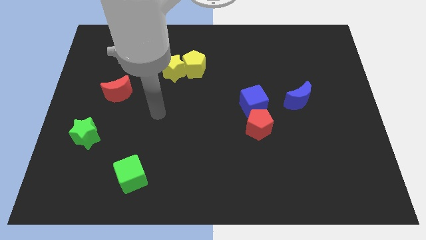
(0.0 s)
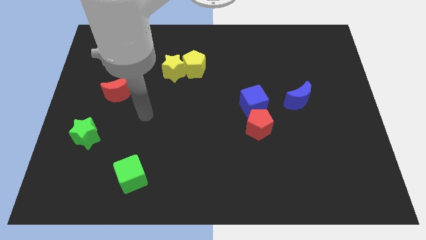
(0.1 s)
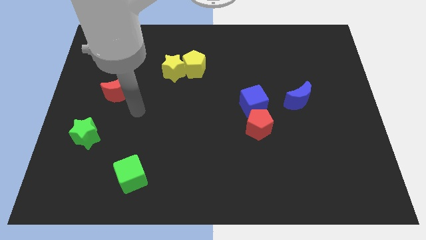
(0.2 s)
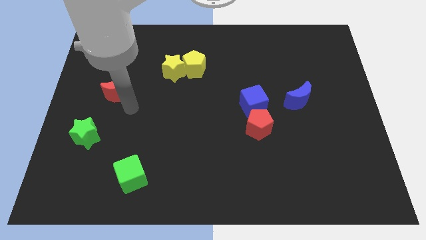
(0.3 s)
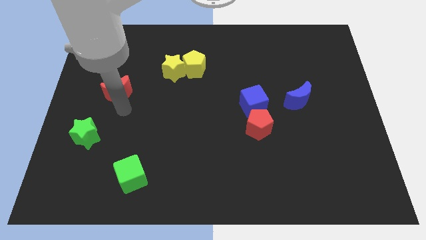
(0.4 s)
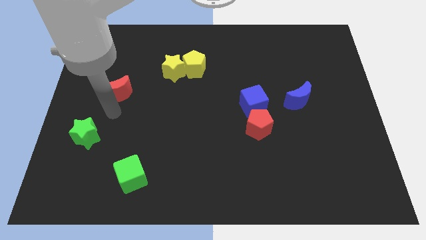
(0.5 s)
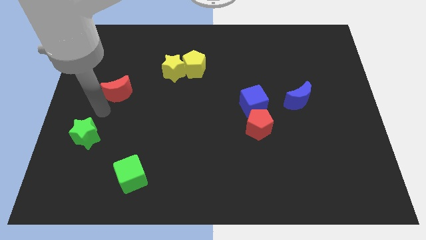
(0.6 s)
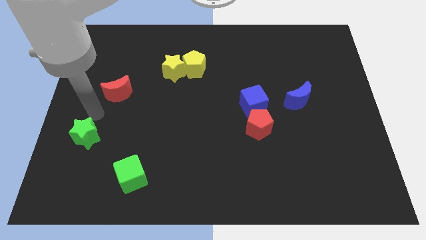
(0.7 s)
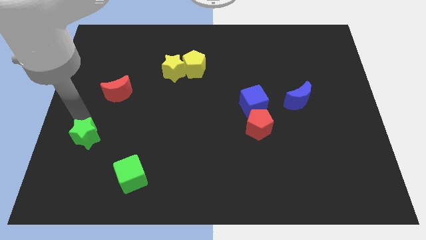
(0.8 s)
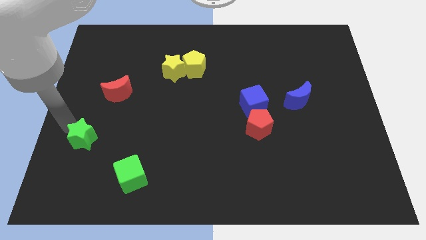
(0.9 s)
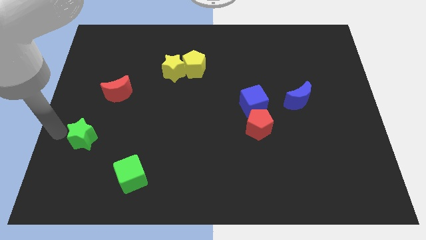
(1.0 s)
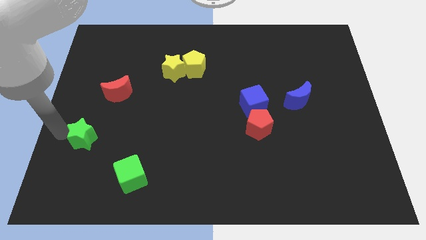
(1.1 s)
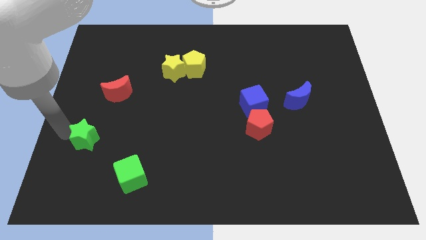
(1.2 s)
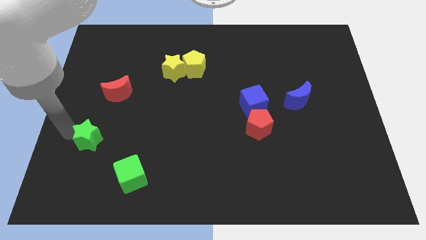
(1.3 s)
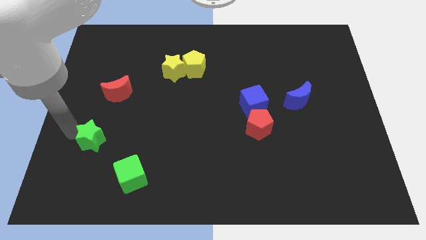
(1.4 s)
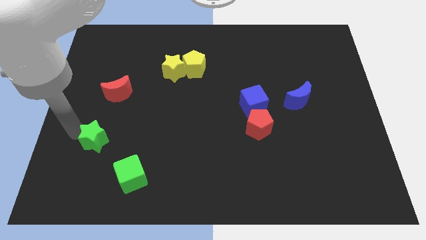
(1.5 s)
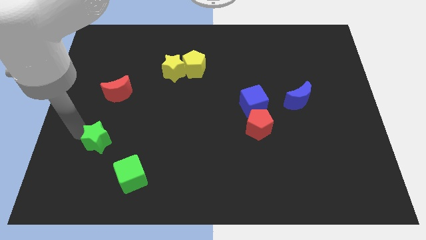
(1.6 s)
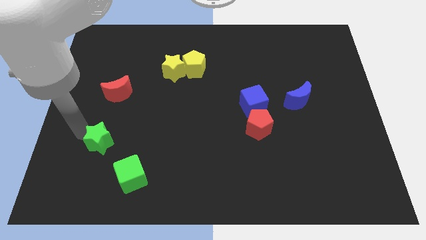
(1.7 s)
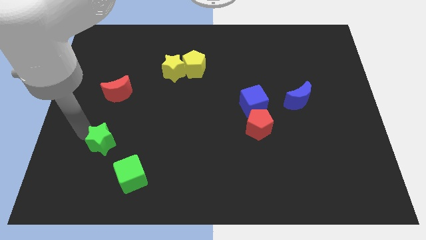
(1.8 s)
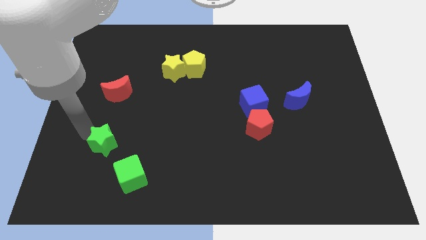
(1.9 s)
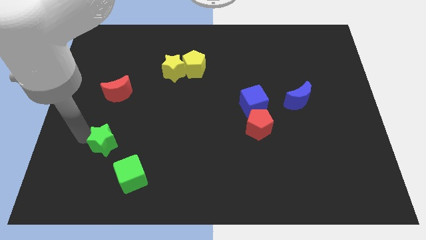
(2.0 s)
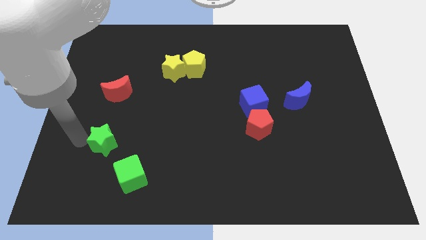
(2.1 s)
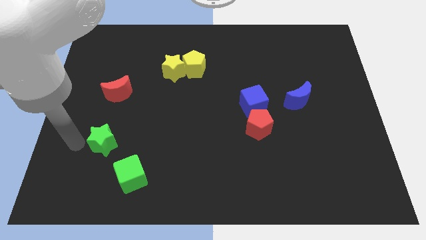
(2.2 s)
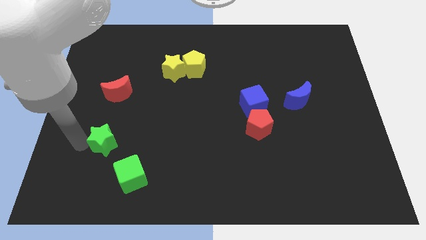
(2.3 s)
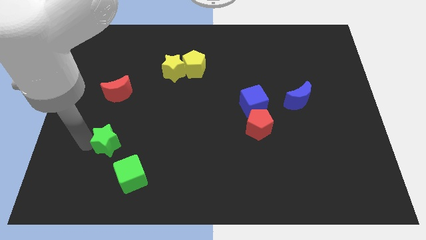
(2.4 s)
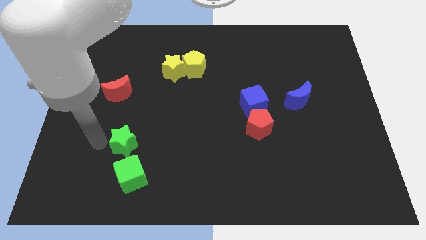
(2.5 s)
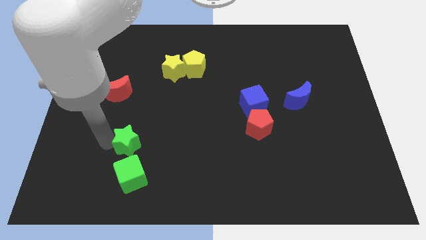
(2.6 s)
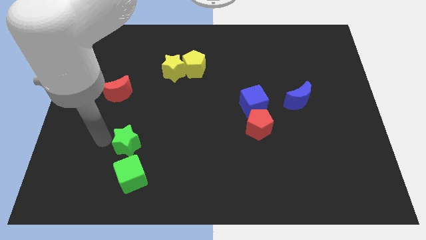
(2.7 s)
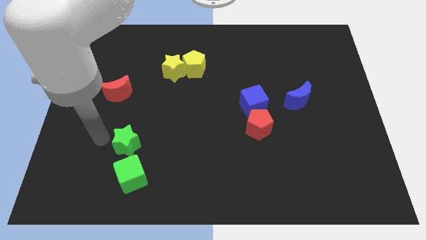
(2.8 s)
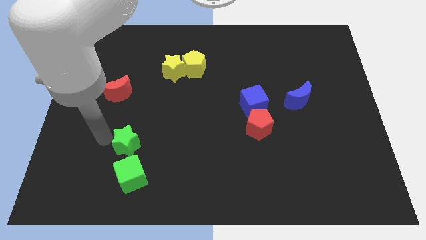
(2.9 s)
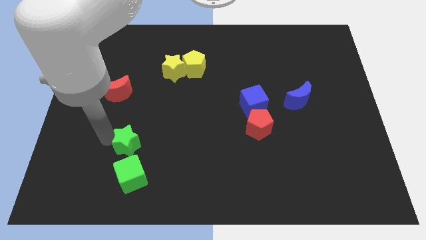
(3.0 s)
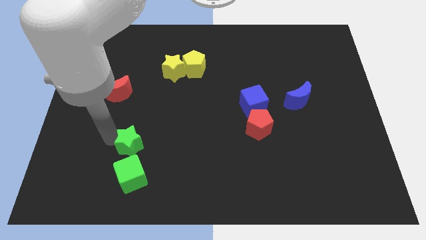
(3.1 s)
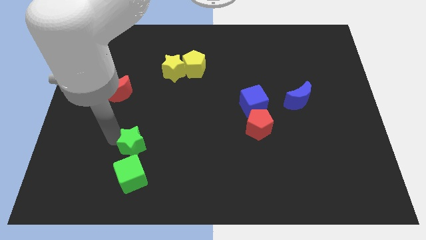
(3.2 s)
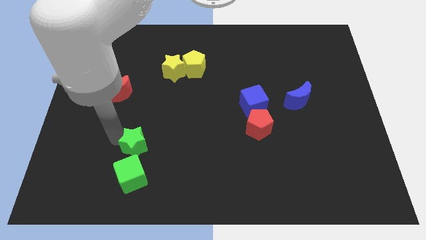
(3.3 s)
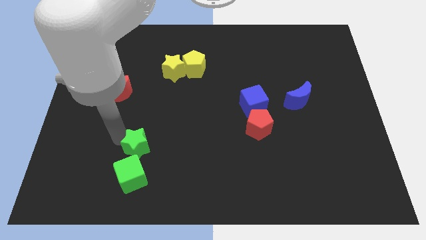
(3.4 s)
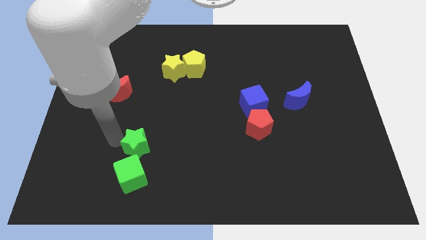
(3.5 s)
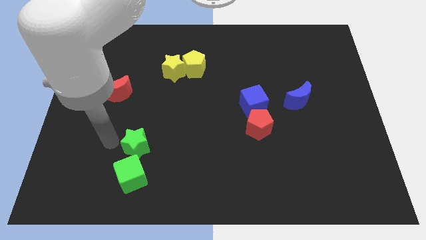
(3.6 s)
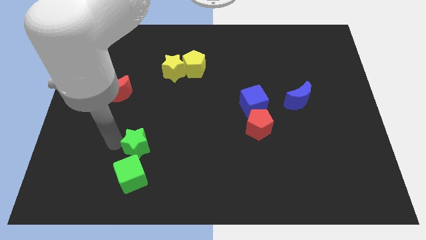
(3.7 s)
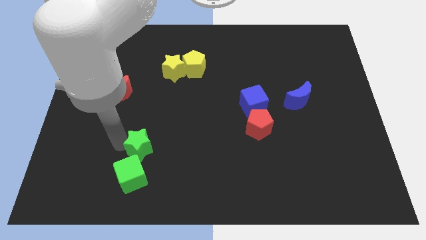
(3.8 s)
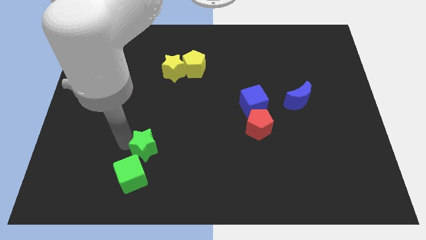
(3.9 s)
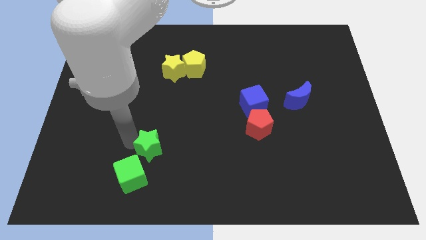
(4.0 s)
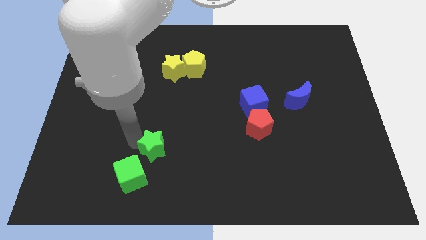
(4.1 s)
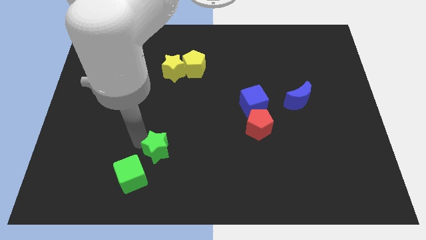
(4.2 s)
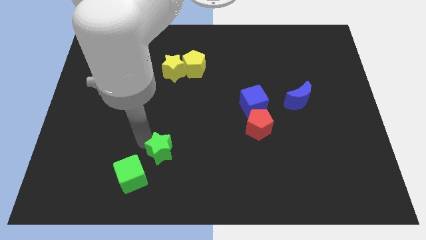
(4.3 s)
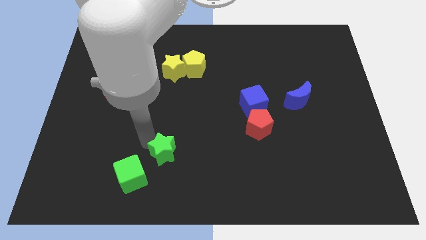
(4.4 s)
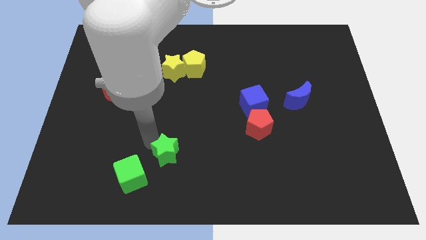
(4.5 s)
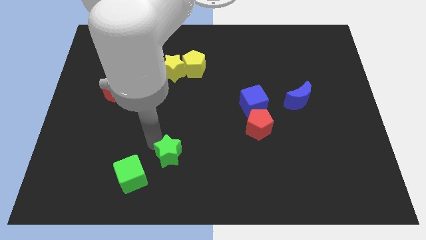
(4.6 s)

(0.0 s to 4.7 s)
move the green star just right of the green cube

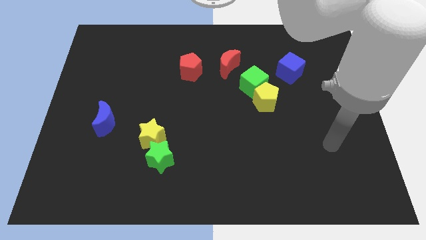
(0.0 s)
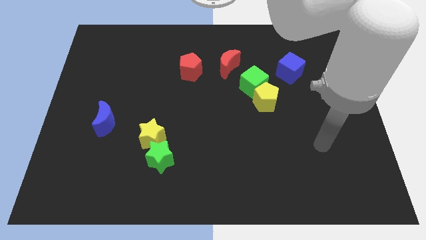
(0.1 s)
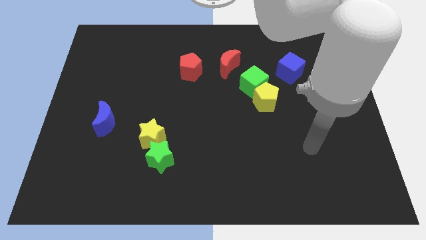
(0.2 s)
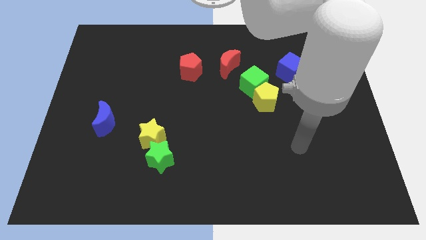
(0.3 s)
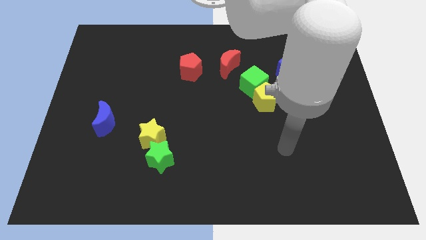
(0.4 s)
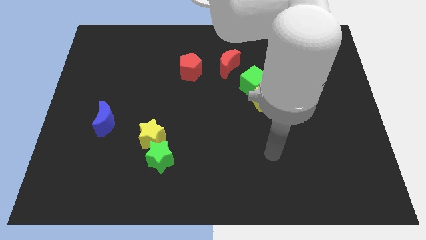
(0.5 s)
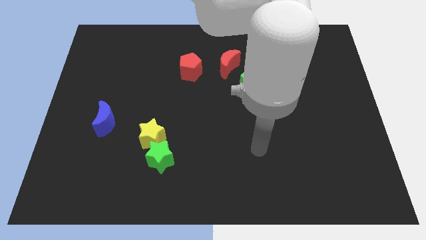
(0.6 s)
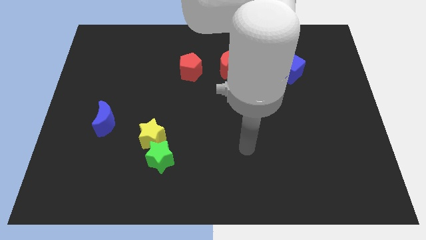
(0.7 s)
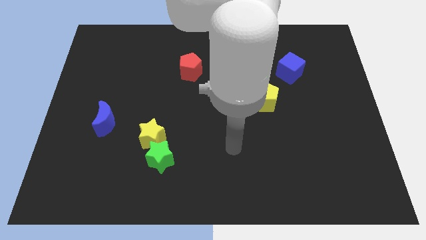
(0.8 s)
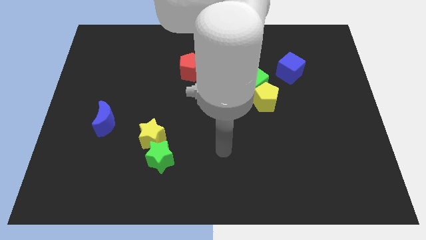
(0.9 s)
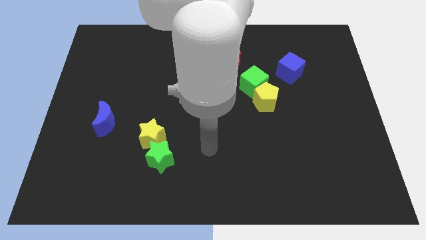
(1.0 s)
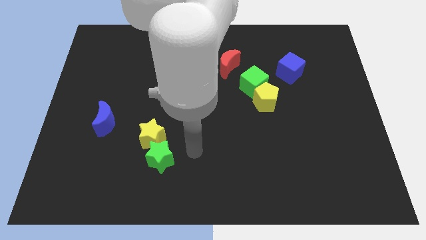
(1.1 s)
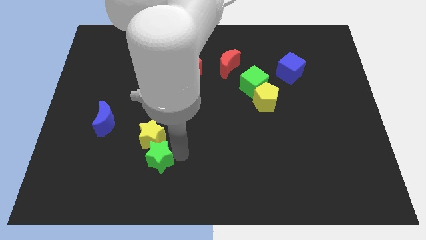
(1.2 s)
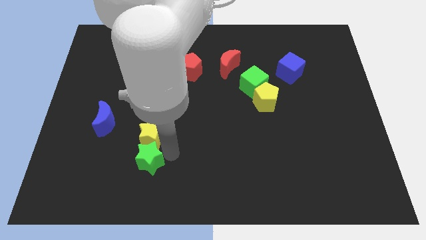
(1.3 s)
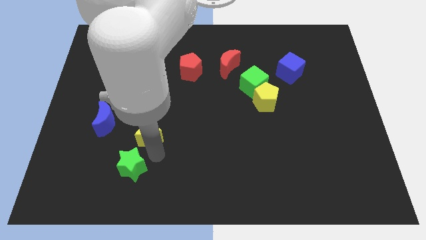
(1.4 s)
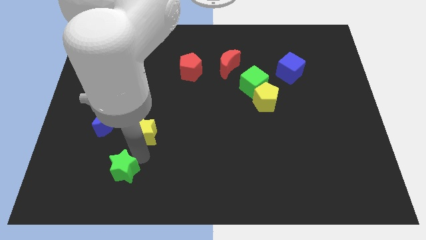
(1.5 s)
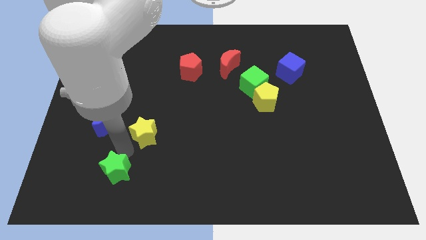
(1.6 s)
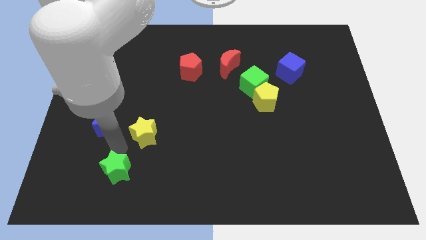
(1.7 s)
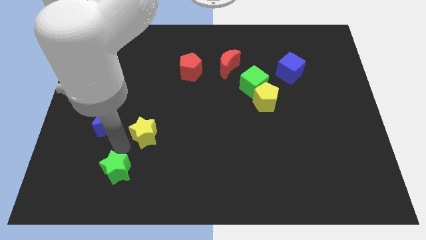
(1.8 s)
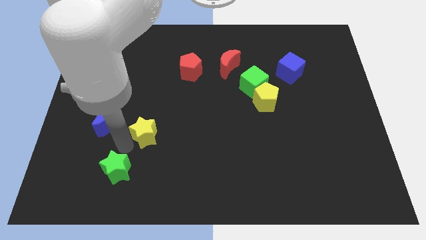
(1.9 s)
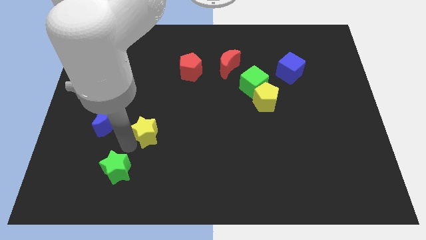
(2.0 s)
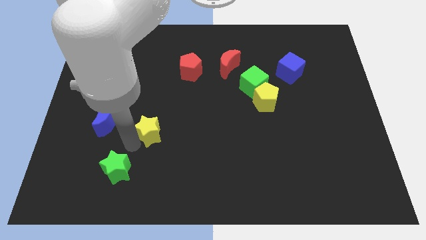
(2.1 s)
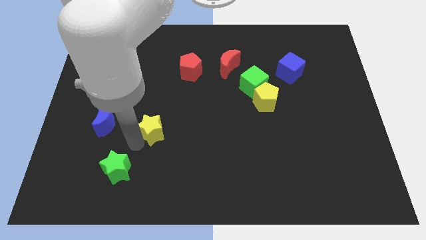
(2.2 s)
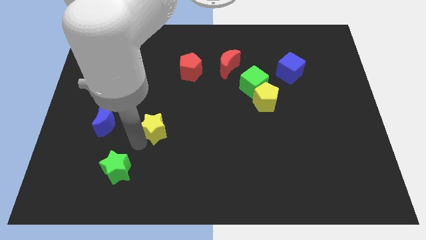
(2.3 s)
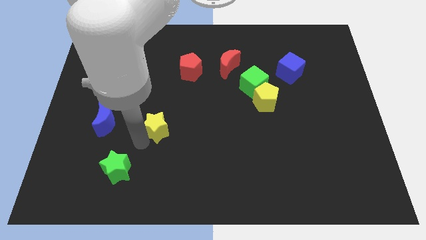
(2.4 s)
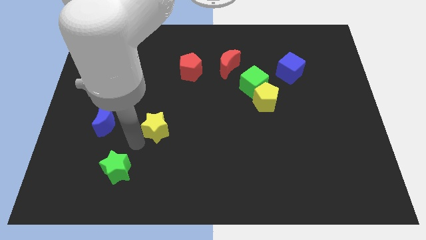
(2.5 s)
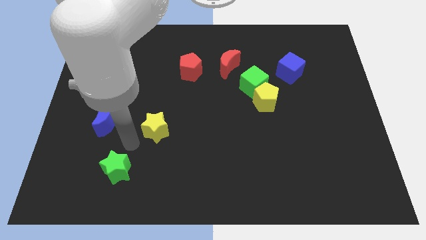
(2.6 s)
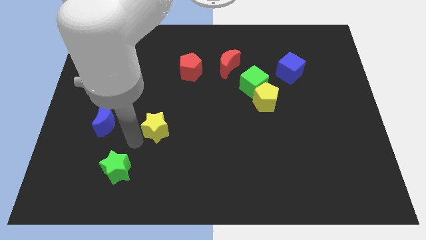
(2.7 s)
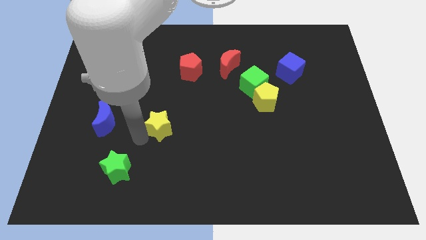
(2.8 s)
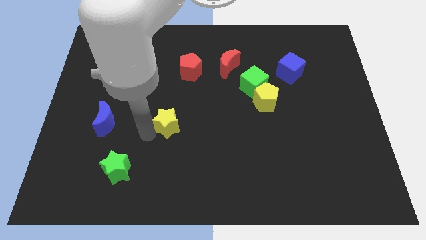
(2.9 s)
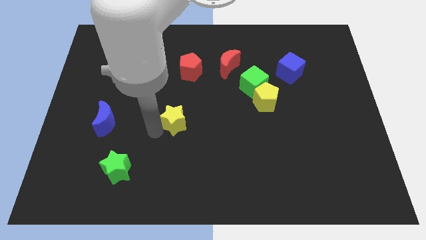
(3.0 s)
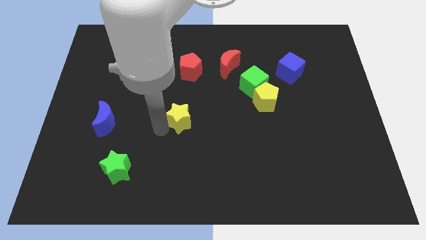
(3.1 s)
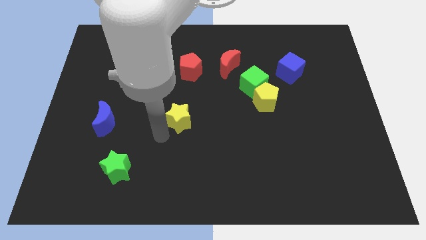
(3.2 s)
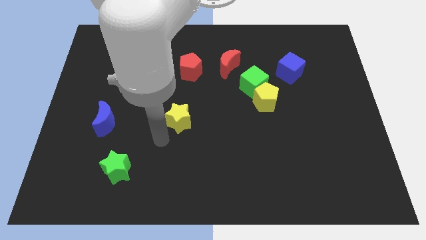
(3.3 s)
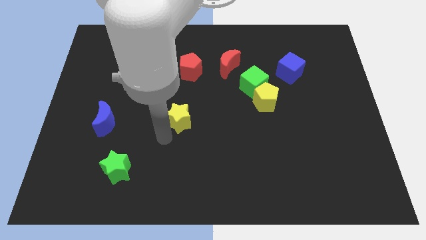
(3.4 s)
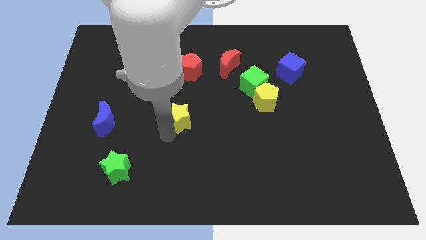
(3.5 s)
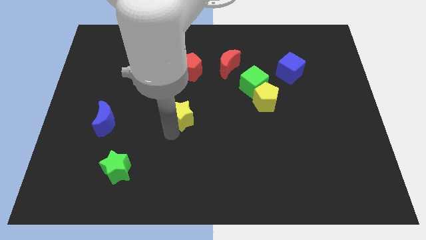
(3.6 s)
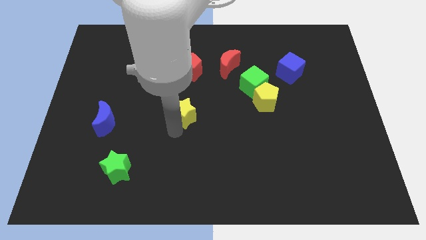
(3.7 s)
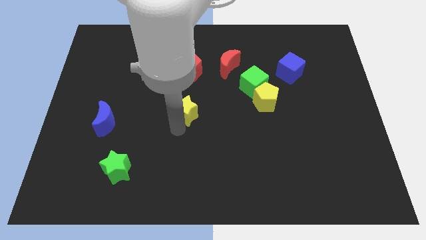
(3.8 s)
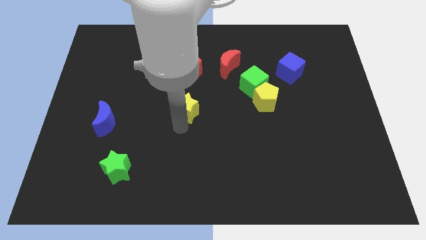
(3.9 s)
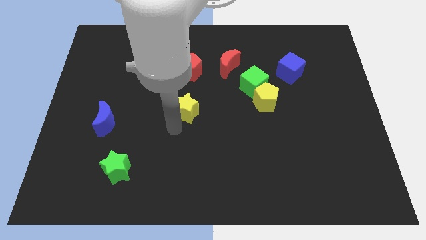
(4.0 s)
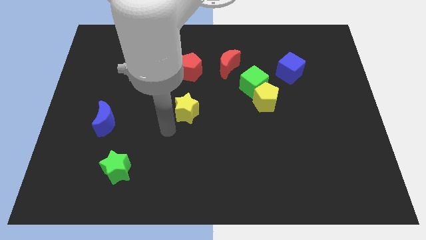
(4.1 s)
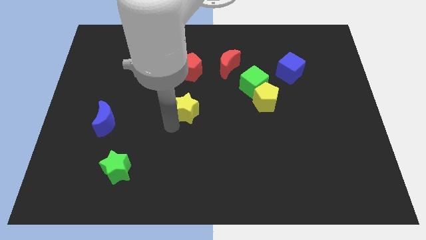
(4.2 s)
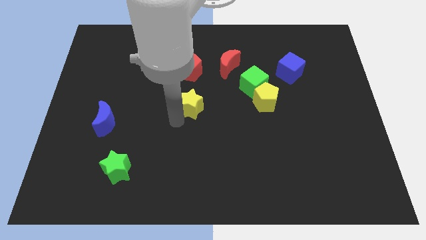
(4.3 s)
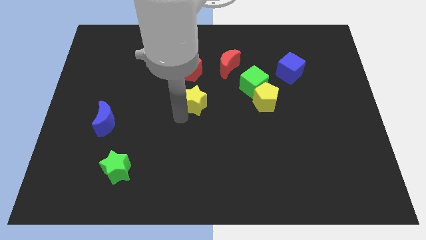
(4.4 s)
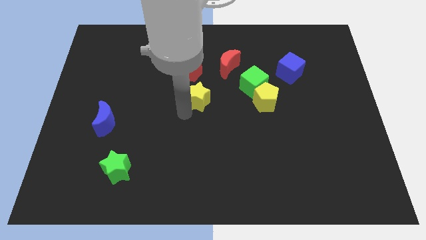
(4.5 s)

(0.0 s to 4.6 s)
slide the yellow star to the left side of the green cube
